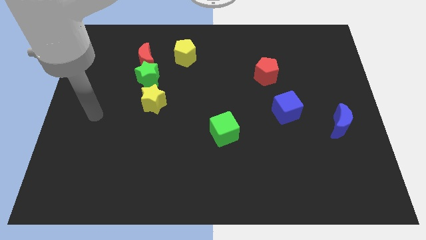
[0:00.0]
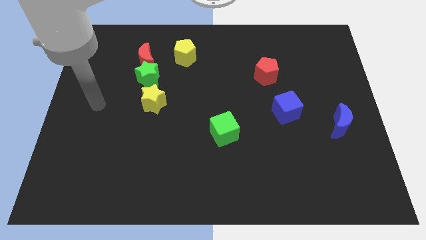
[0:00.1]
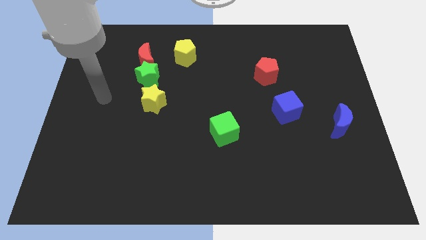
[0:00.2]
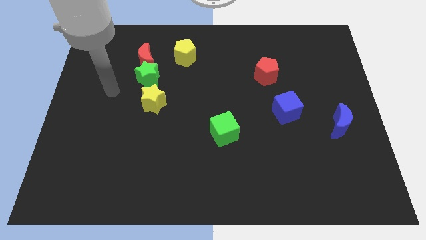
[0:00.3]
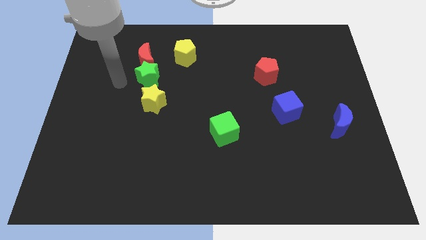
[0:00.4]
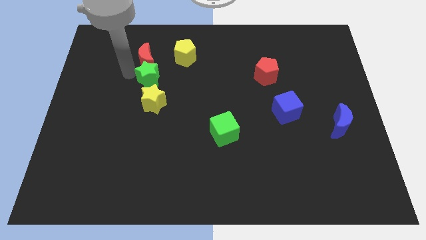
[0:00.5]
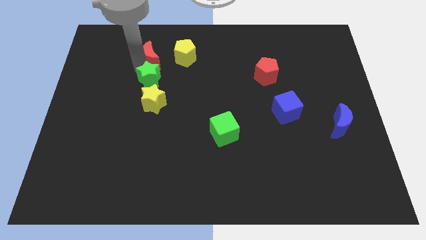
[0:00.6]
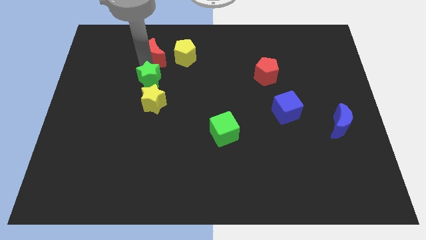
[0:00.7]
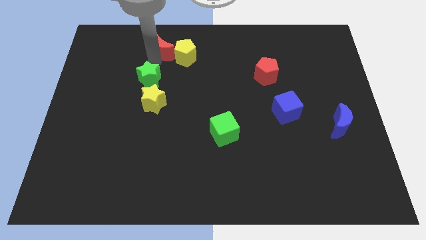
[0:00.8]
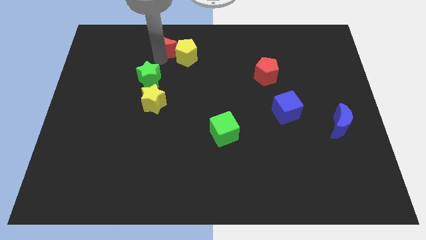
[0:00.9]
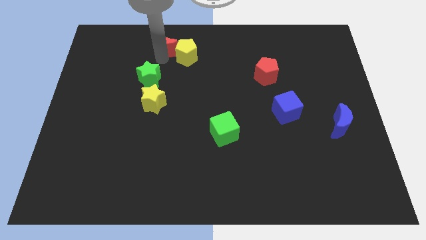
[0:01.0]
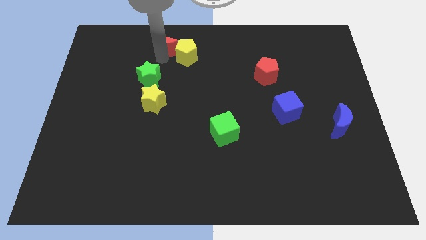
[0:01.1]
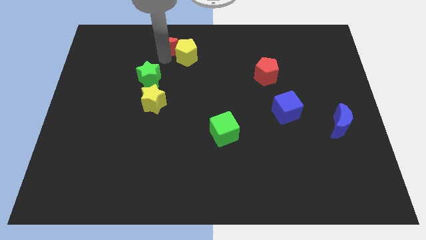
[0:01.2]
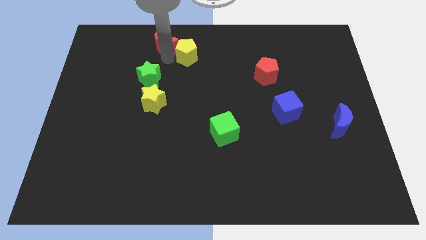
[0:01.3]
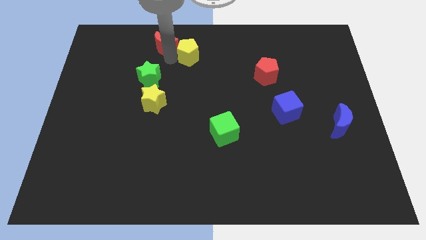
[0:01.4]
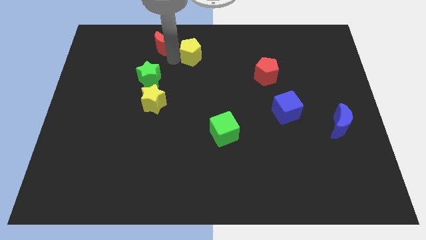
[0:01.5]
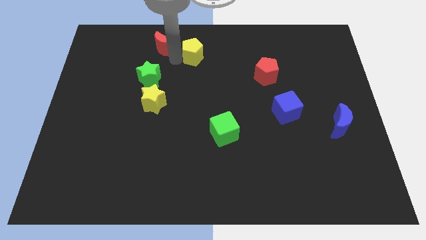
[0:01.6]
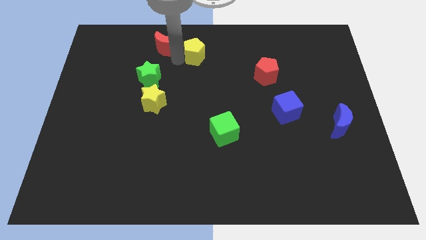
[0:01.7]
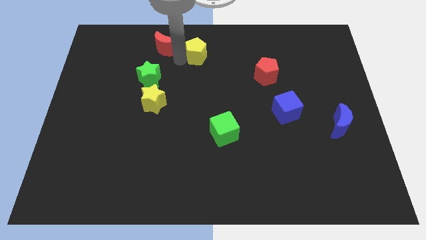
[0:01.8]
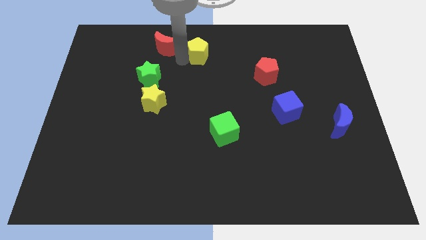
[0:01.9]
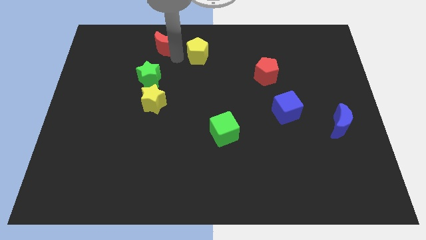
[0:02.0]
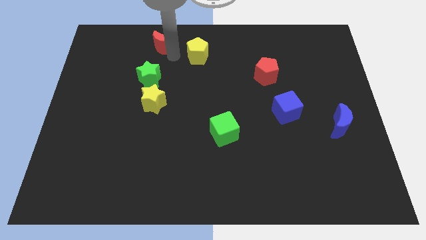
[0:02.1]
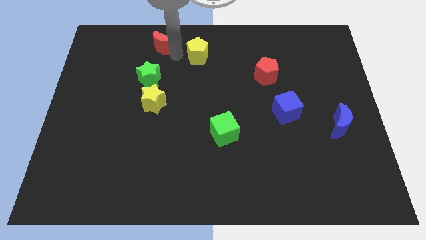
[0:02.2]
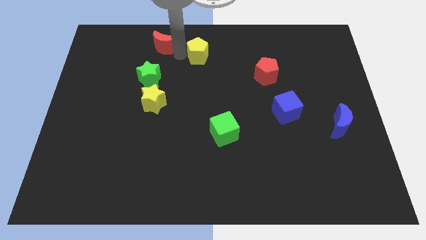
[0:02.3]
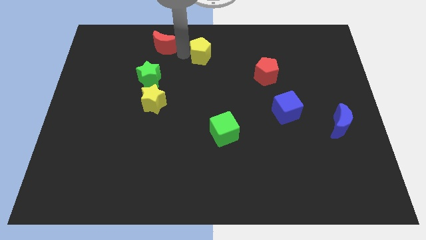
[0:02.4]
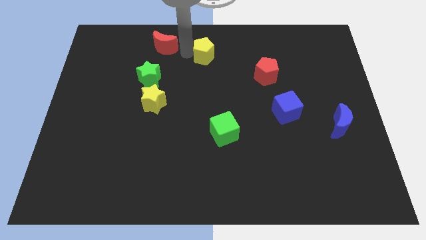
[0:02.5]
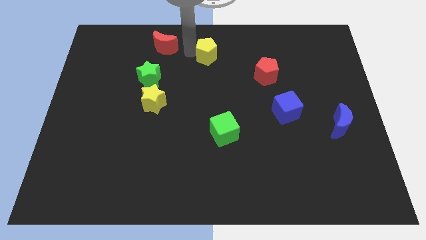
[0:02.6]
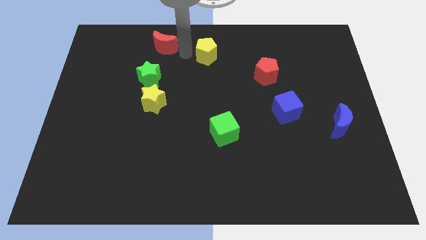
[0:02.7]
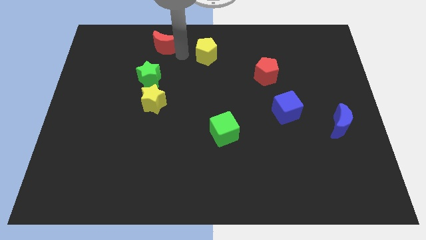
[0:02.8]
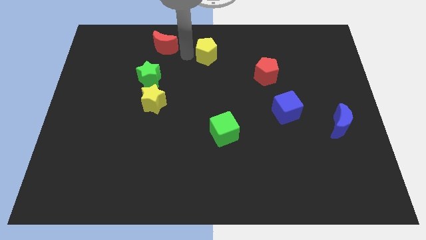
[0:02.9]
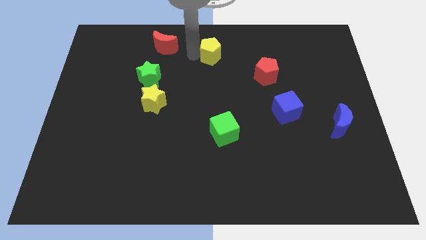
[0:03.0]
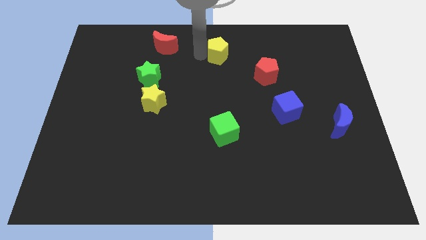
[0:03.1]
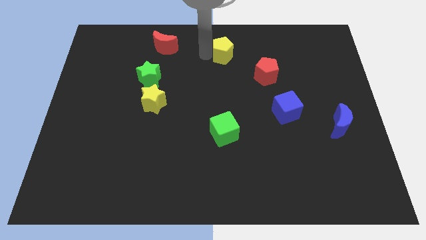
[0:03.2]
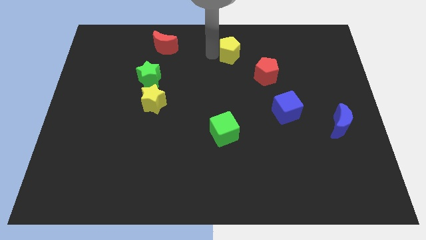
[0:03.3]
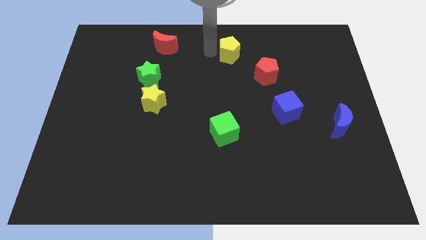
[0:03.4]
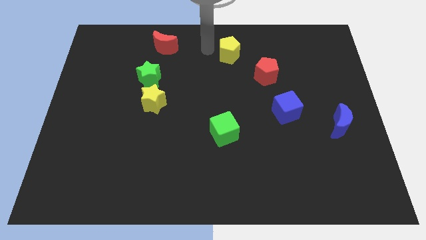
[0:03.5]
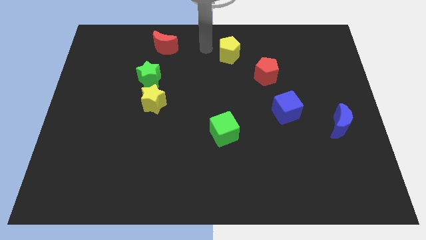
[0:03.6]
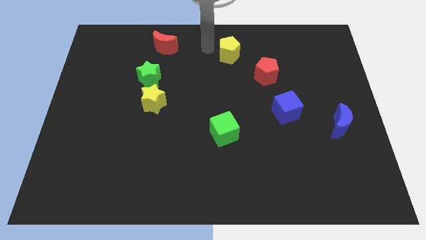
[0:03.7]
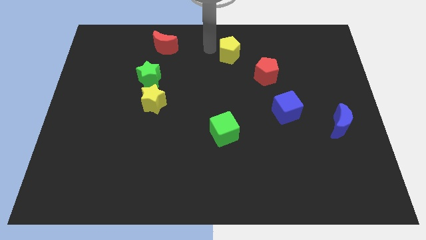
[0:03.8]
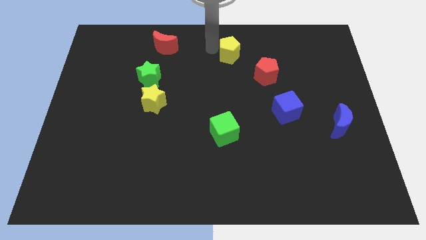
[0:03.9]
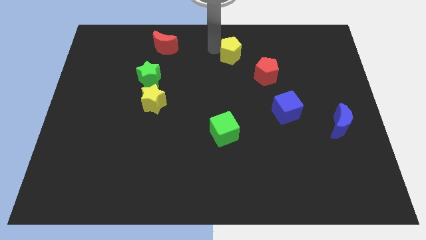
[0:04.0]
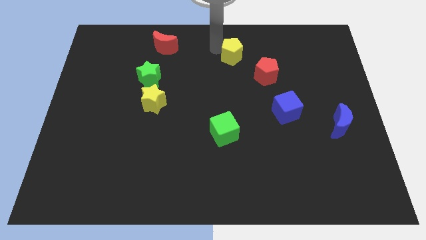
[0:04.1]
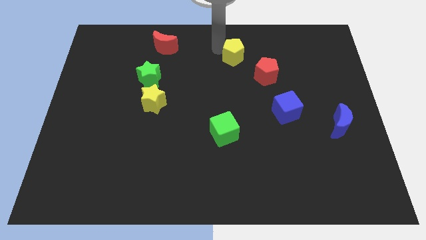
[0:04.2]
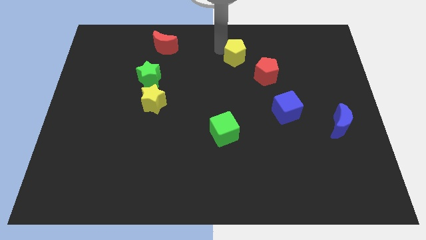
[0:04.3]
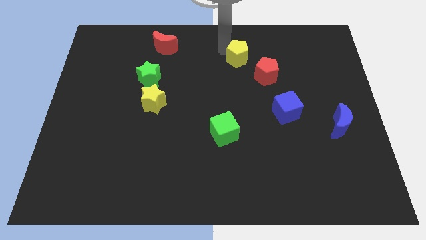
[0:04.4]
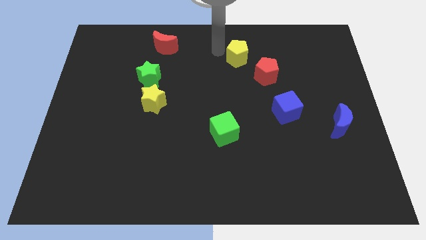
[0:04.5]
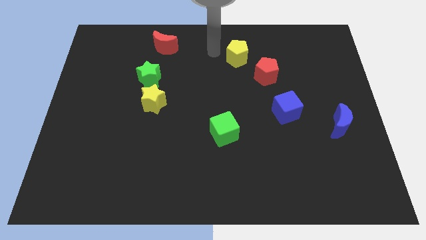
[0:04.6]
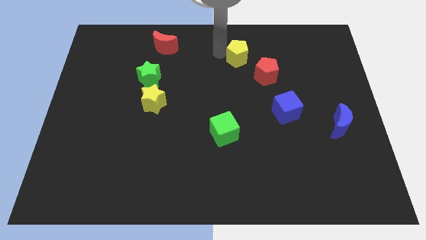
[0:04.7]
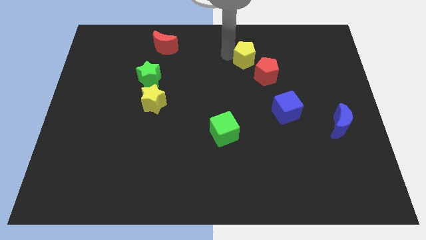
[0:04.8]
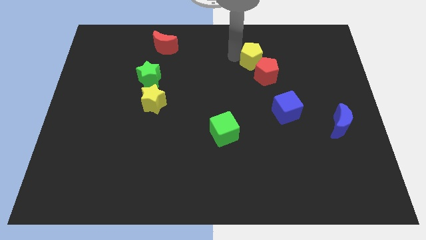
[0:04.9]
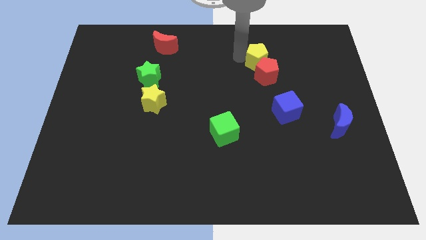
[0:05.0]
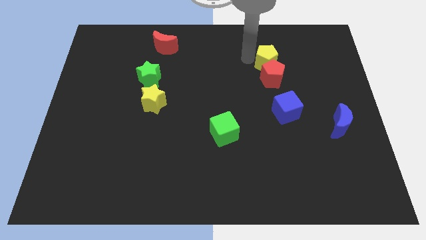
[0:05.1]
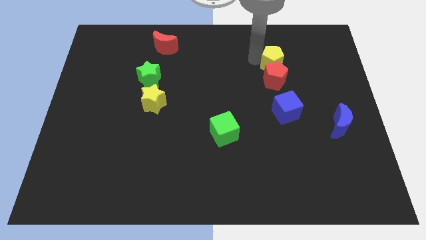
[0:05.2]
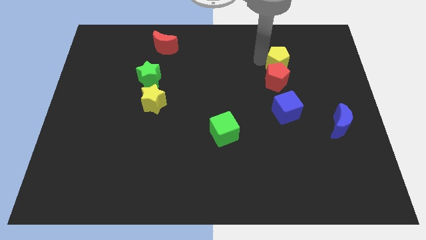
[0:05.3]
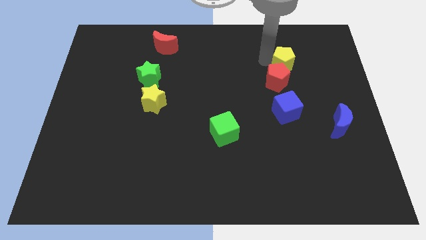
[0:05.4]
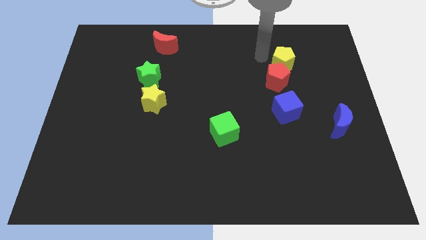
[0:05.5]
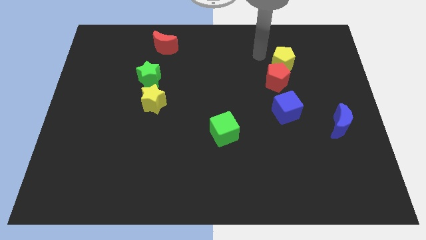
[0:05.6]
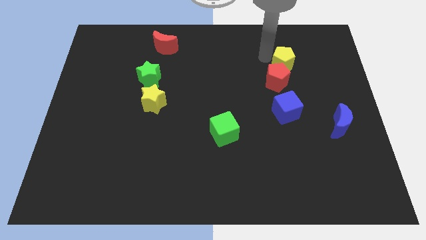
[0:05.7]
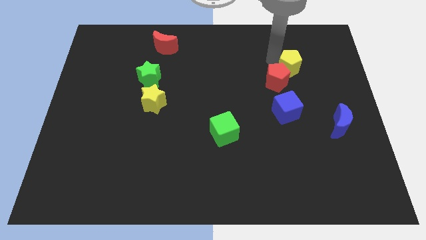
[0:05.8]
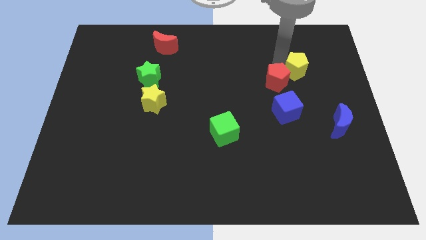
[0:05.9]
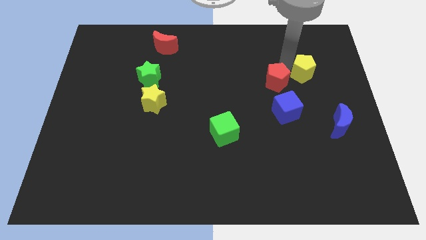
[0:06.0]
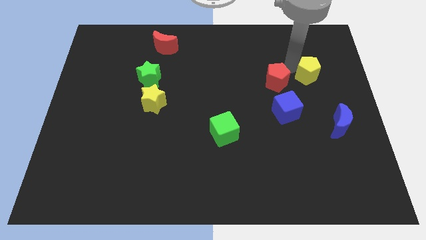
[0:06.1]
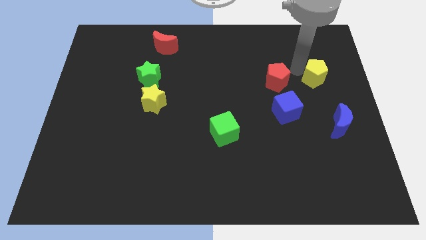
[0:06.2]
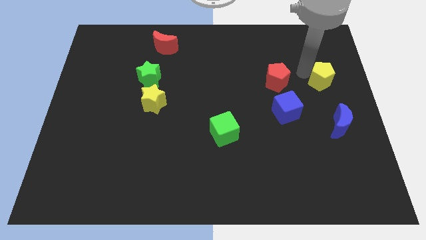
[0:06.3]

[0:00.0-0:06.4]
push the yellow pentagon to the right side of the board

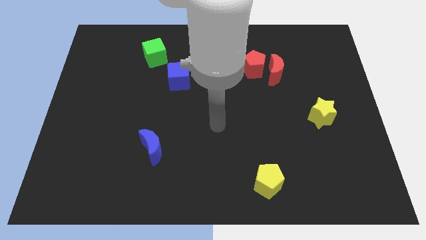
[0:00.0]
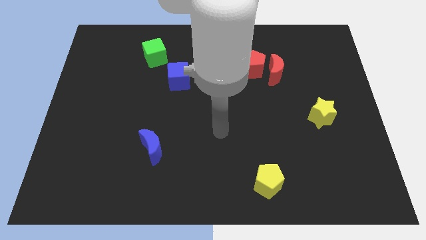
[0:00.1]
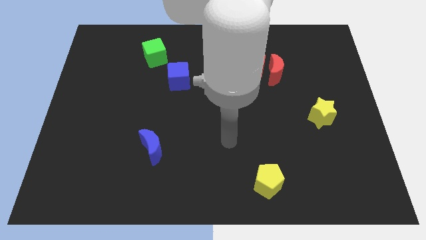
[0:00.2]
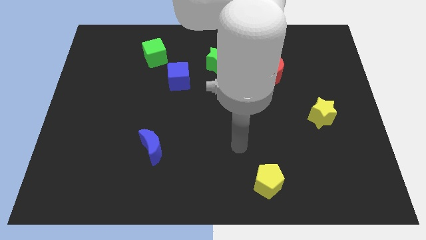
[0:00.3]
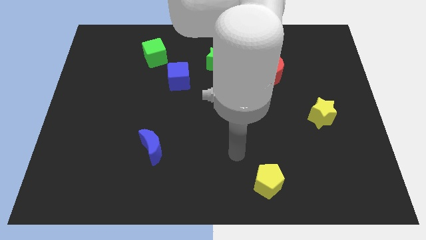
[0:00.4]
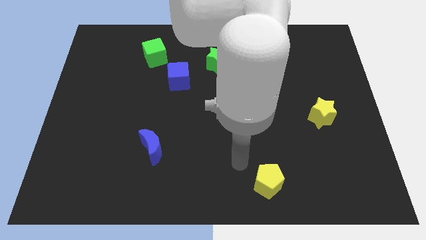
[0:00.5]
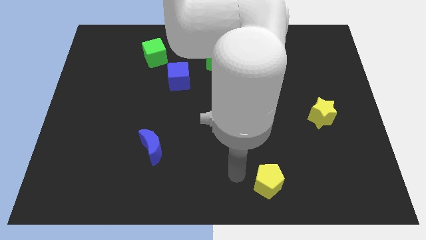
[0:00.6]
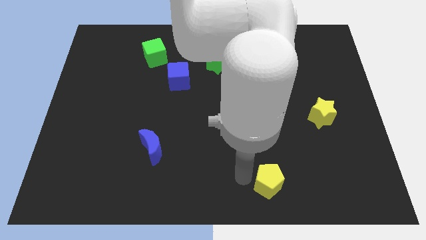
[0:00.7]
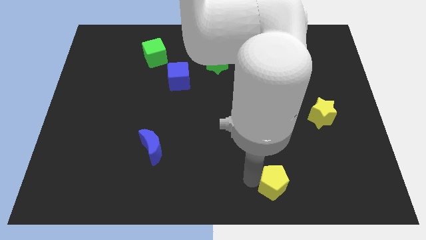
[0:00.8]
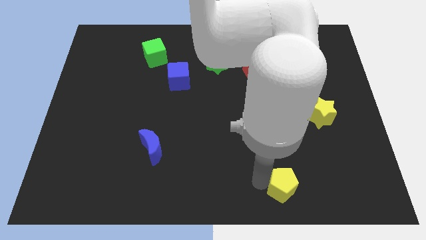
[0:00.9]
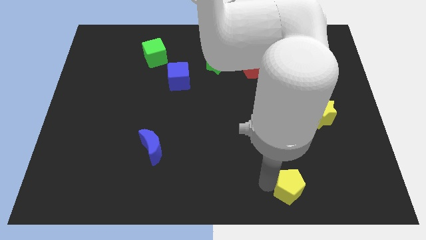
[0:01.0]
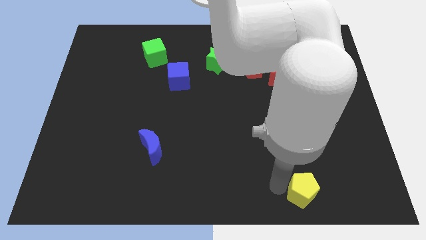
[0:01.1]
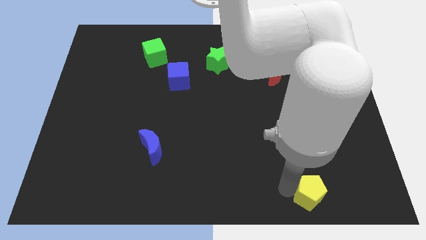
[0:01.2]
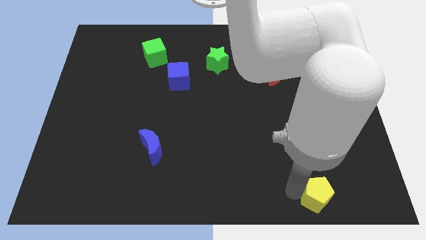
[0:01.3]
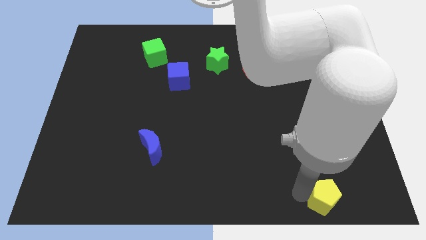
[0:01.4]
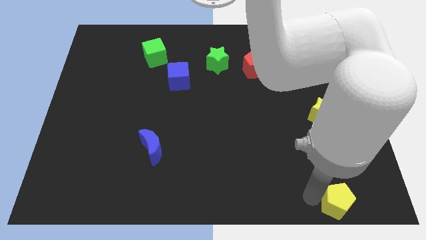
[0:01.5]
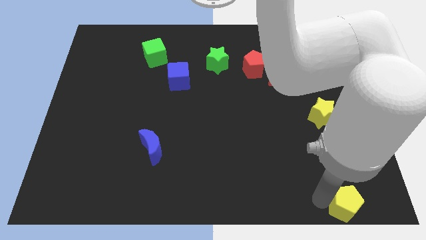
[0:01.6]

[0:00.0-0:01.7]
put the yellow pentagon to the lower right corner

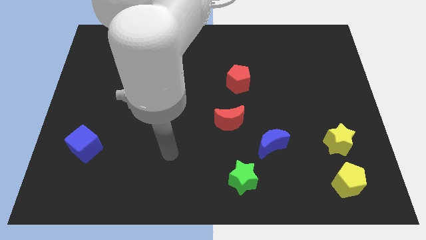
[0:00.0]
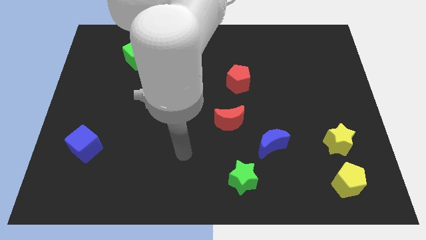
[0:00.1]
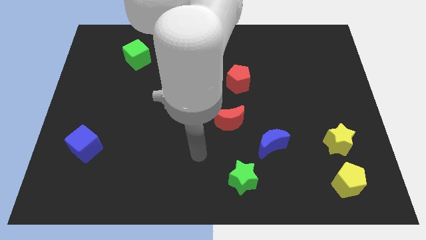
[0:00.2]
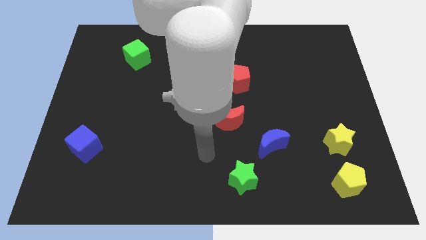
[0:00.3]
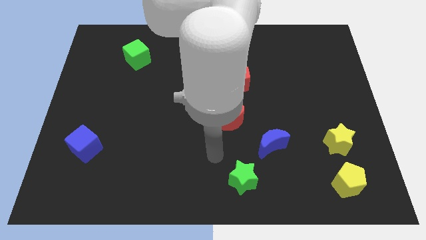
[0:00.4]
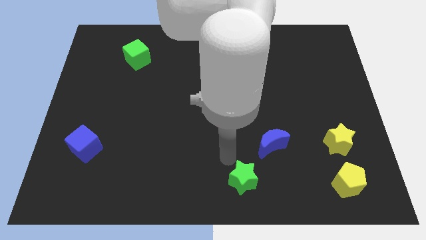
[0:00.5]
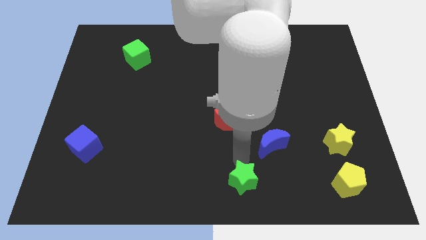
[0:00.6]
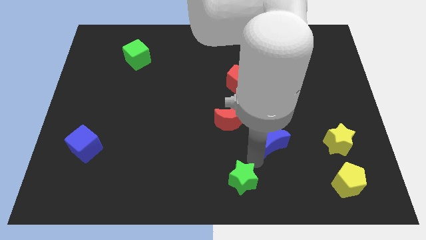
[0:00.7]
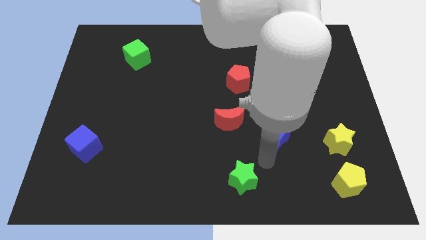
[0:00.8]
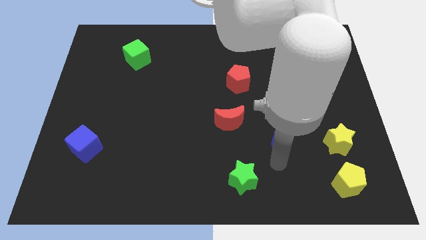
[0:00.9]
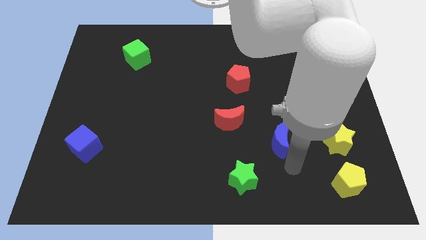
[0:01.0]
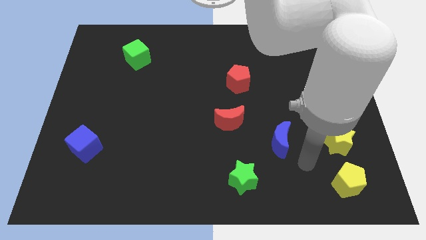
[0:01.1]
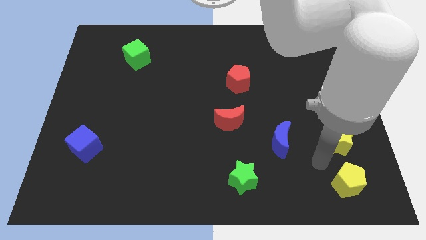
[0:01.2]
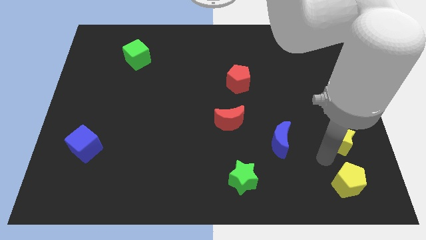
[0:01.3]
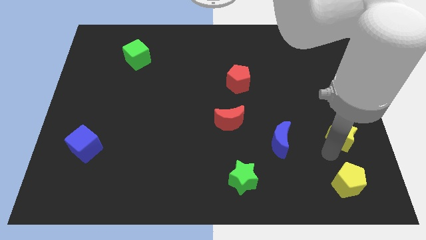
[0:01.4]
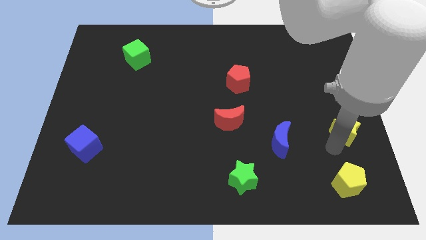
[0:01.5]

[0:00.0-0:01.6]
move the yellow star to the right side
